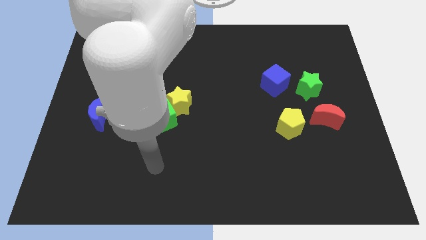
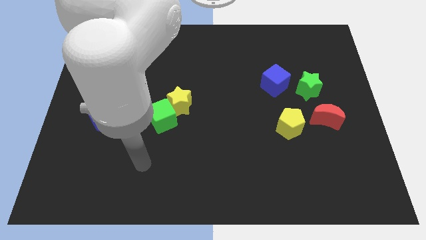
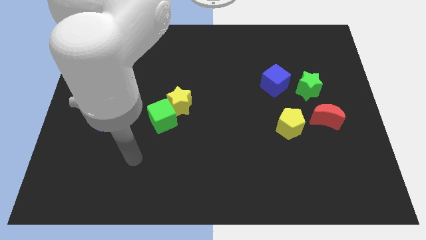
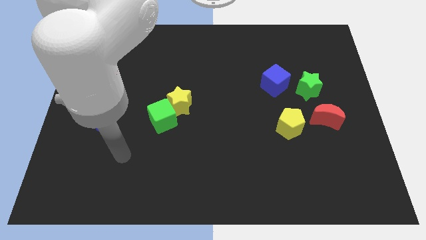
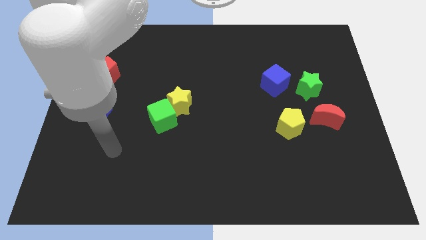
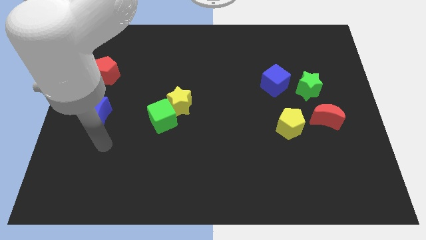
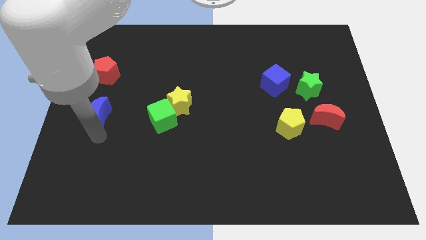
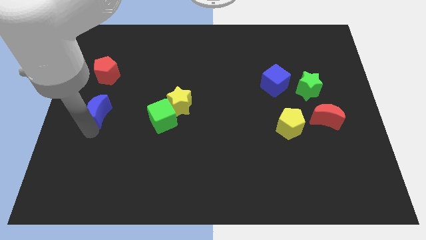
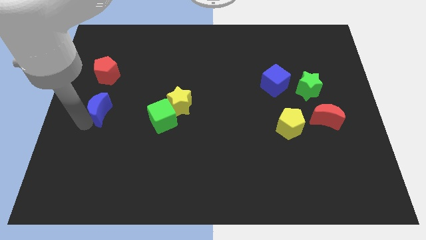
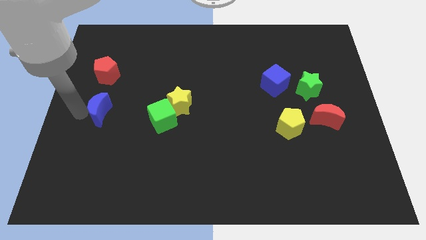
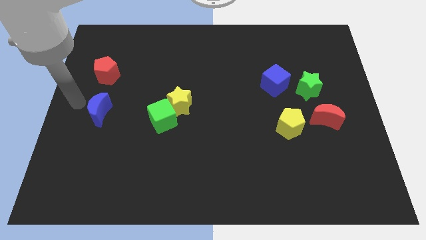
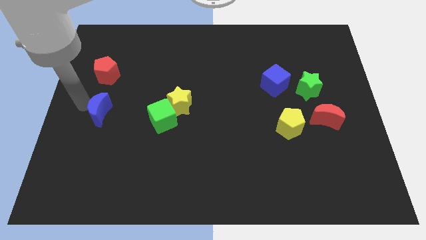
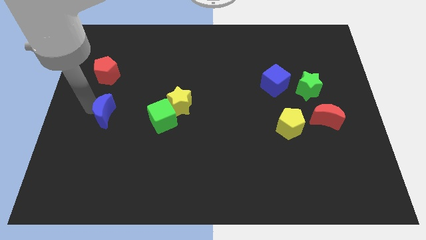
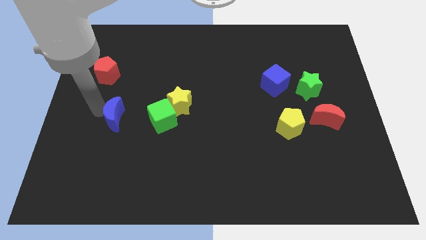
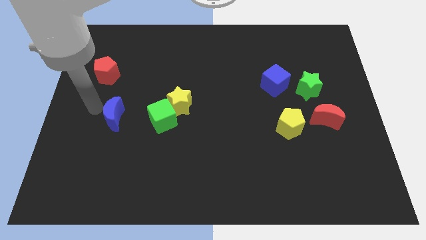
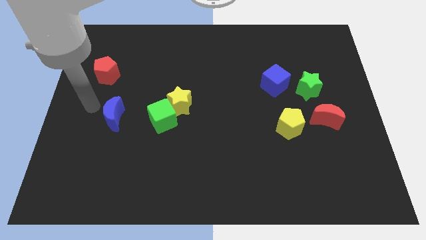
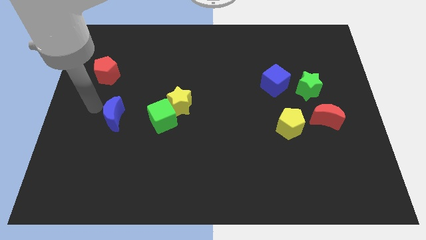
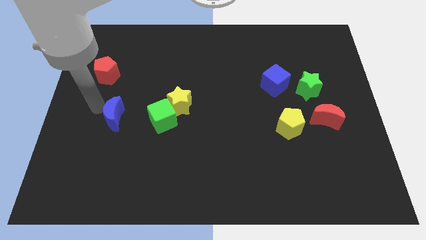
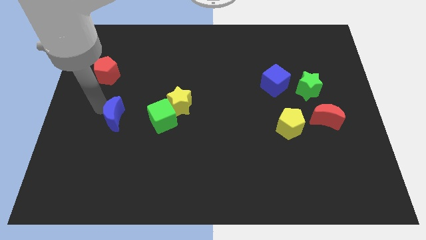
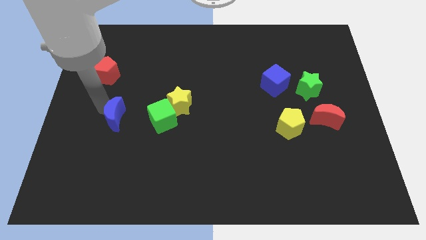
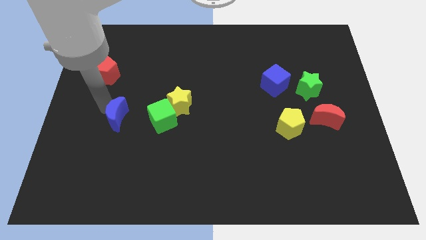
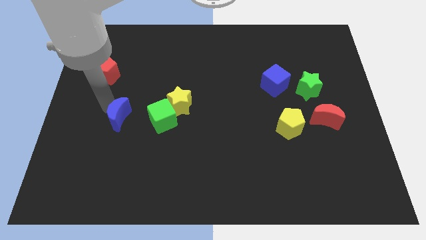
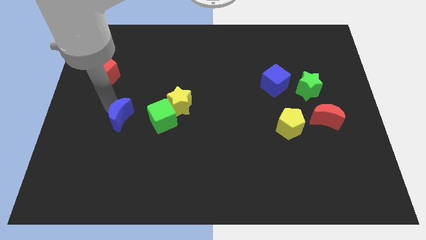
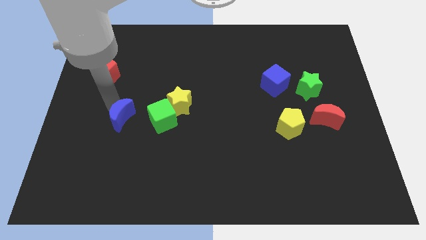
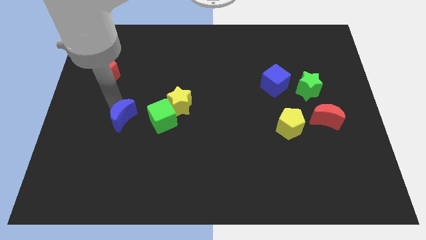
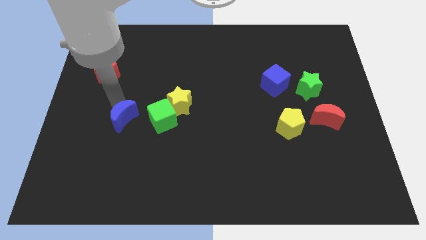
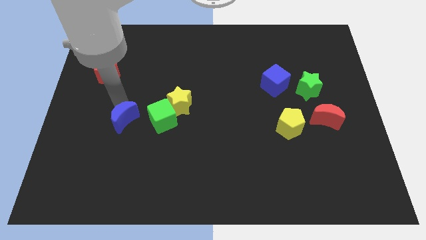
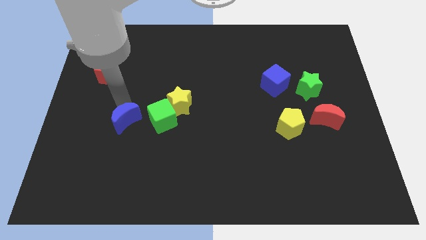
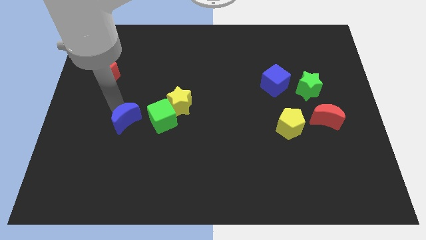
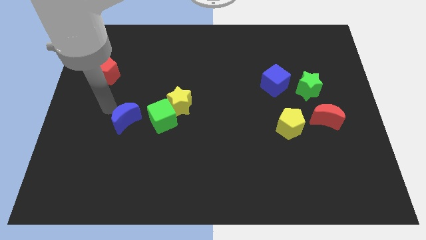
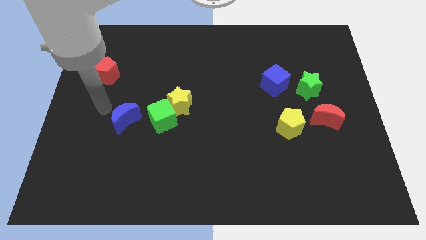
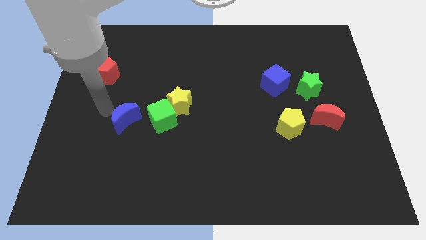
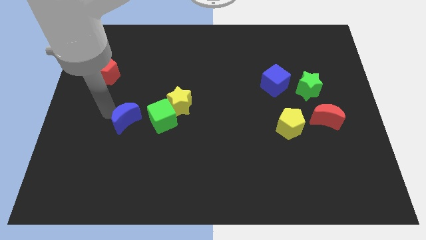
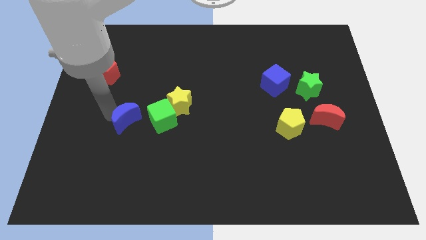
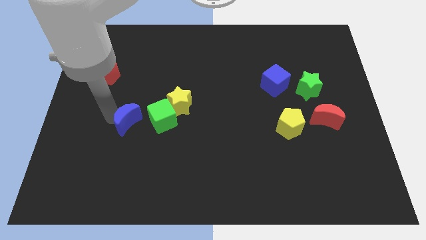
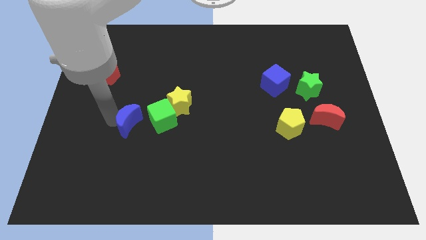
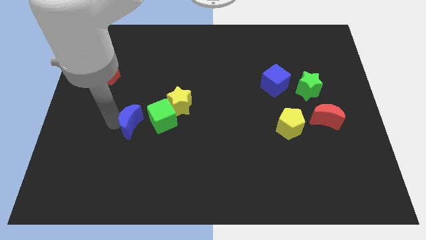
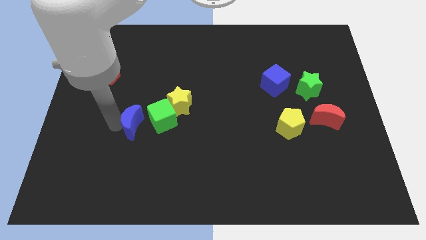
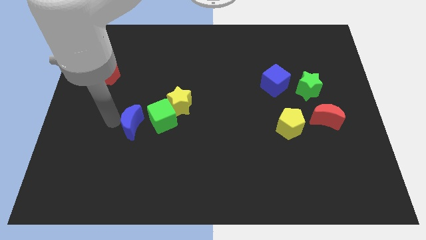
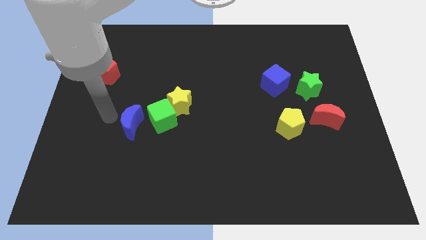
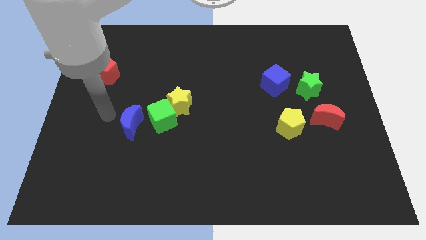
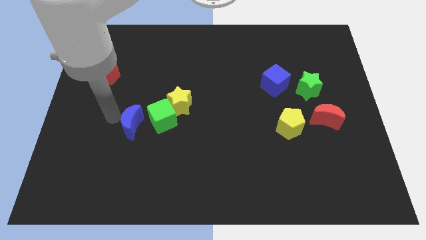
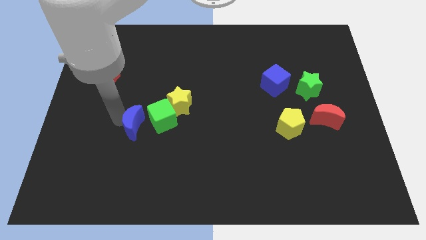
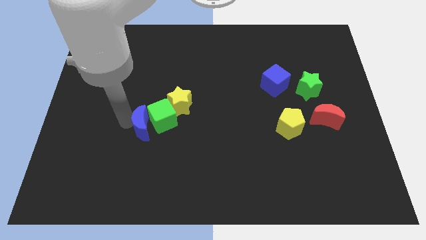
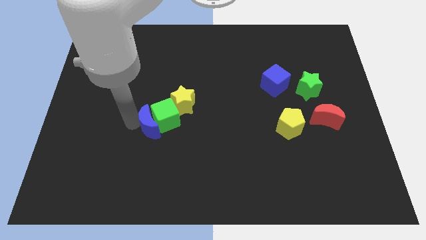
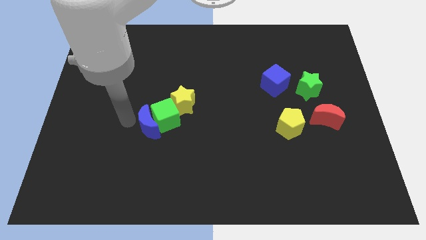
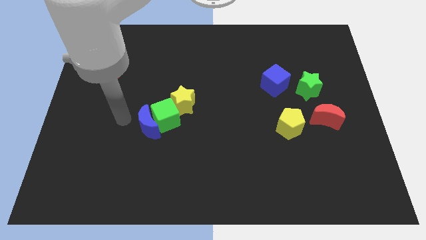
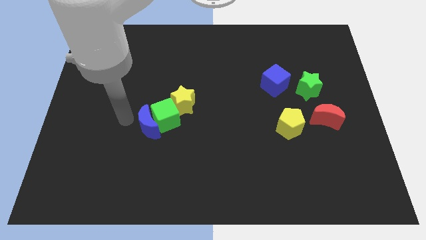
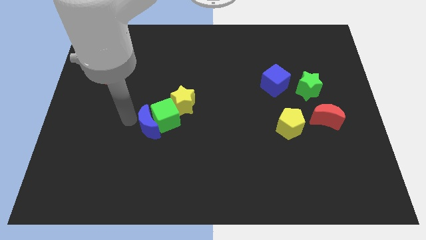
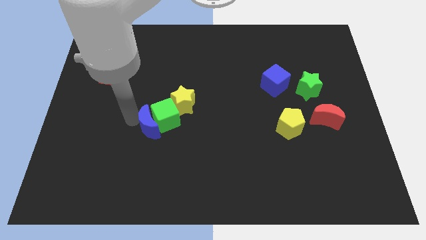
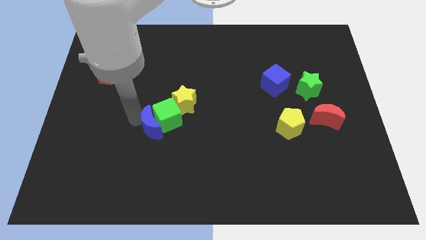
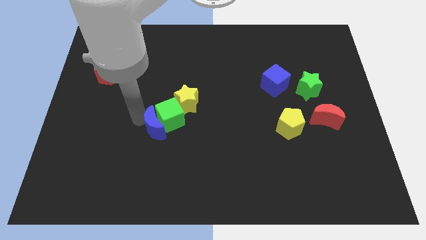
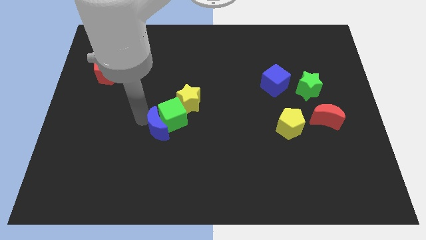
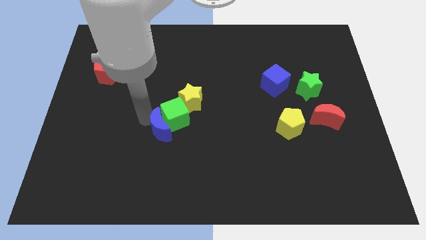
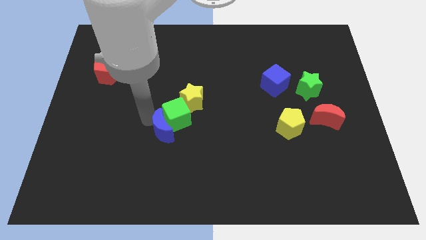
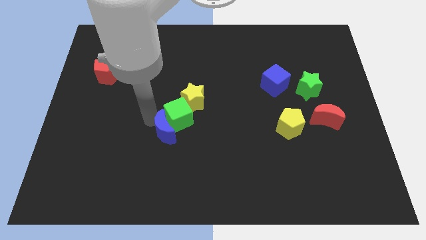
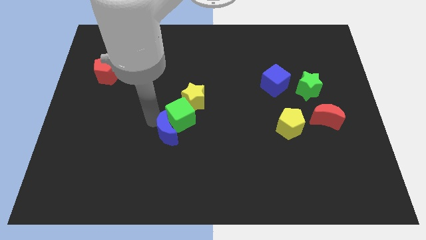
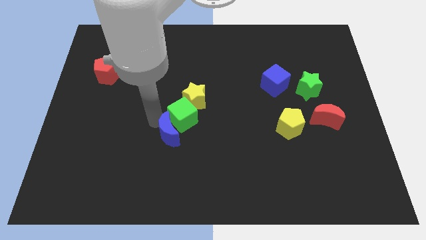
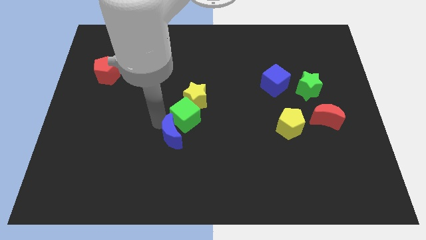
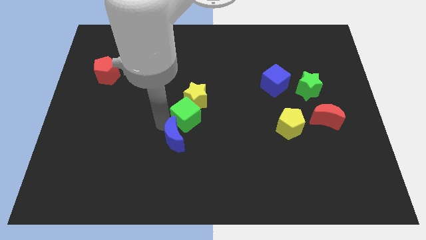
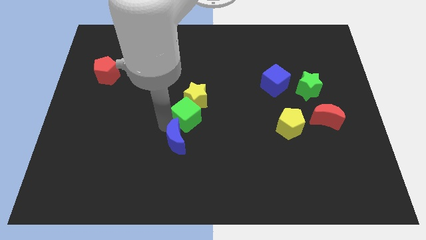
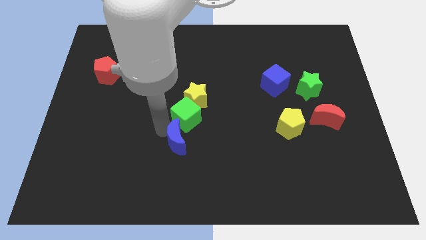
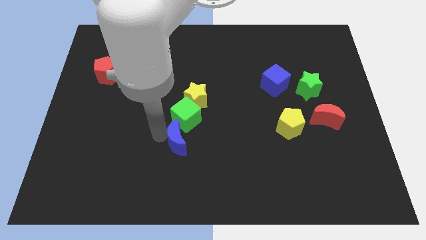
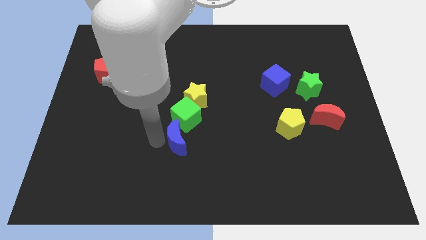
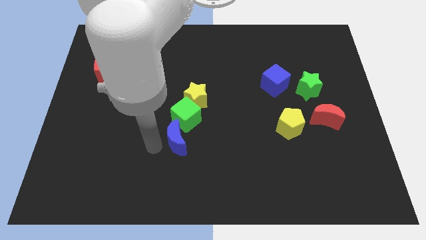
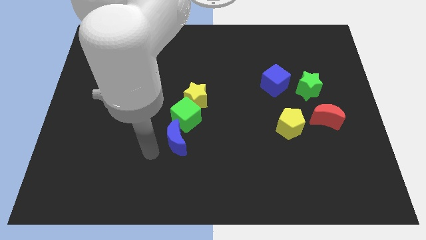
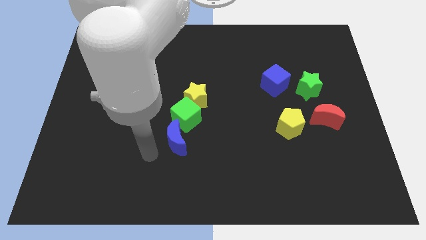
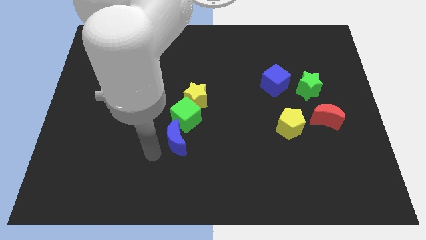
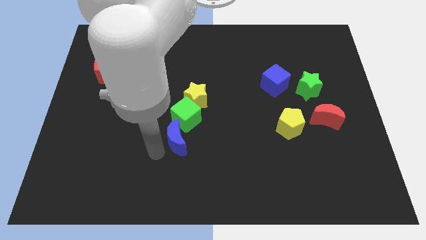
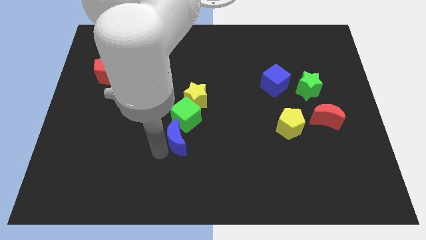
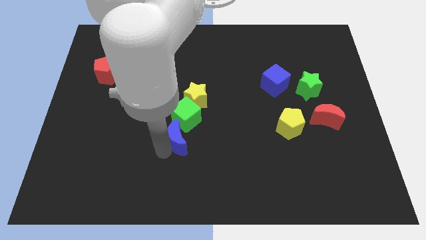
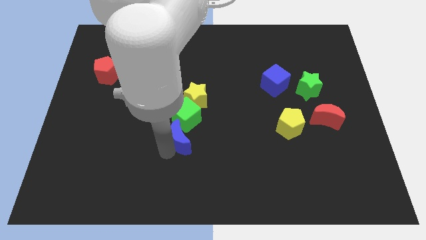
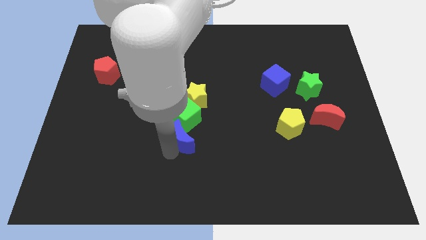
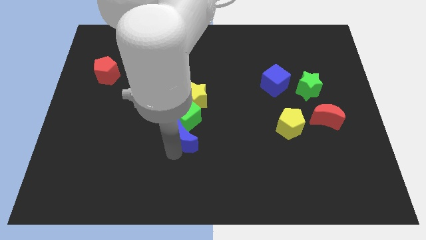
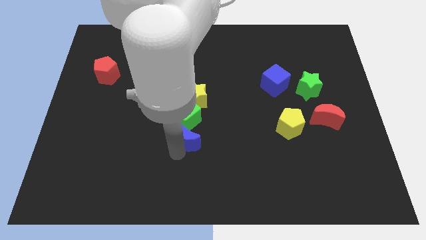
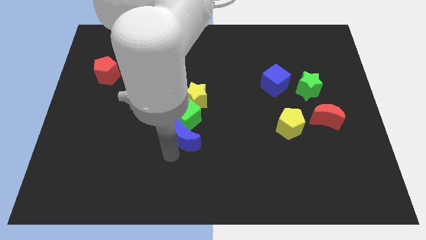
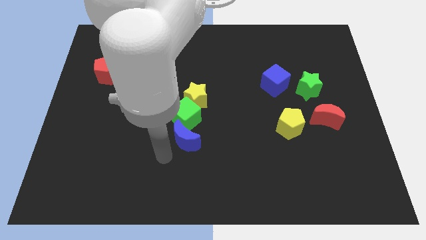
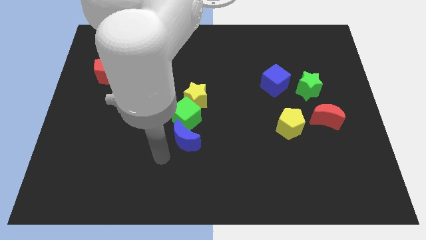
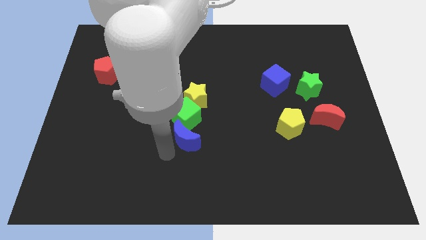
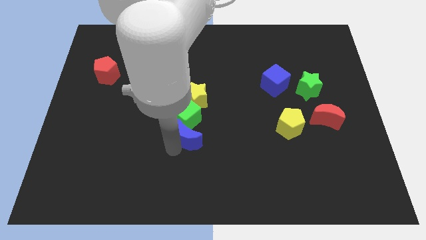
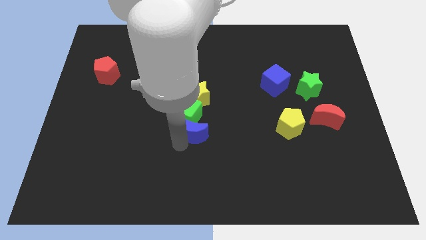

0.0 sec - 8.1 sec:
move the blue moon to the right

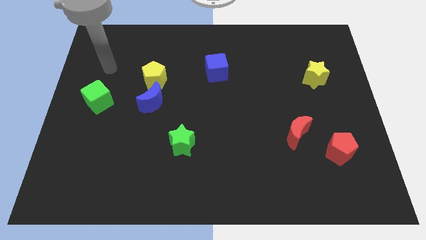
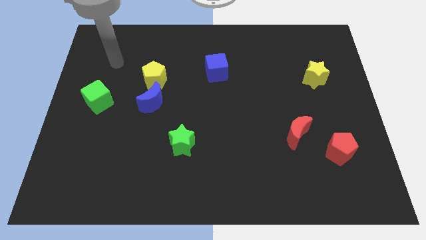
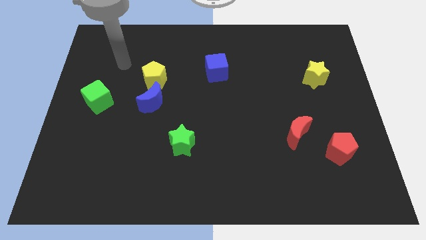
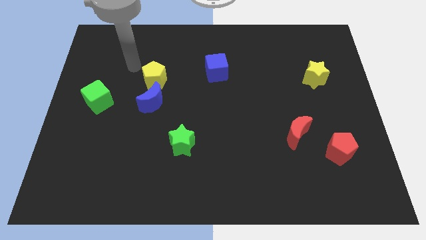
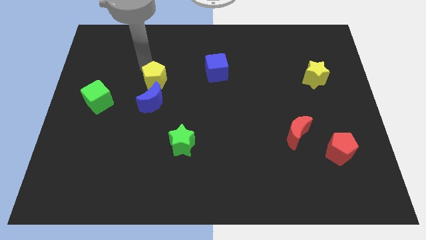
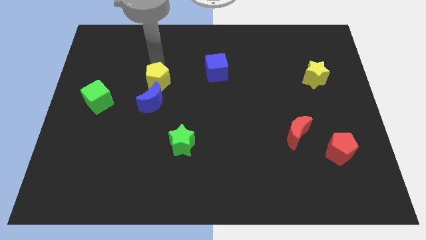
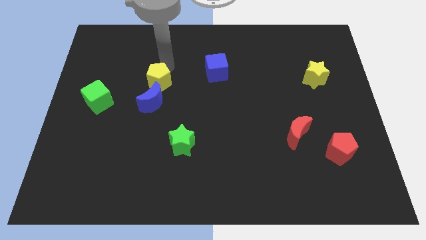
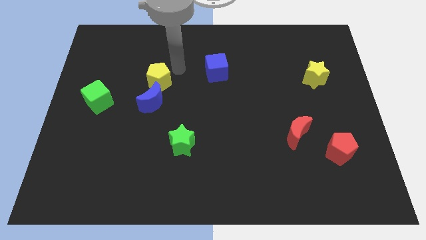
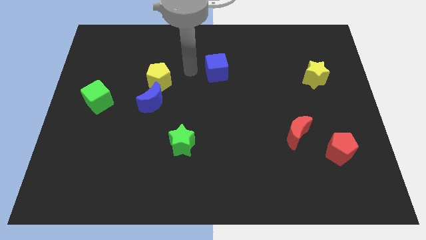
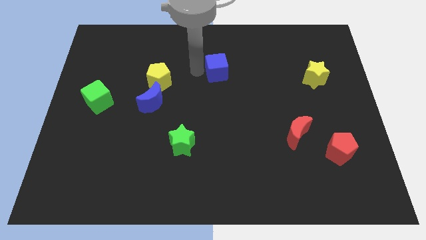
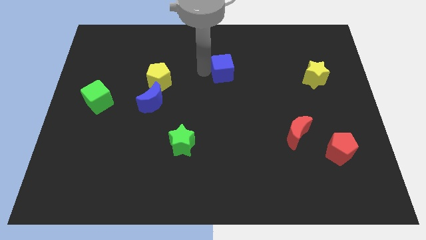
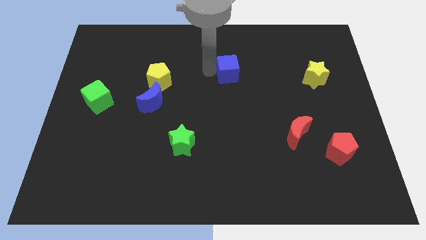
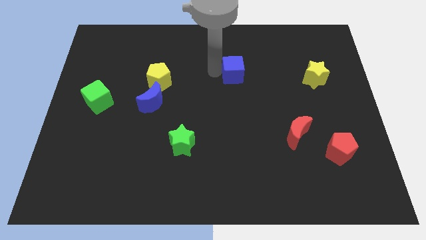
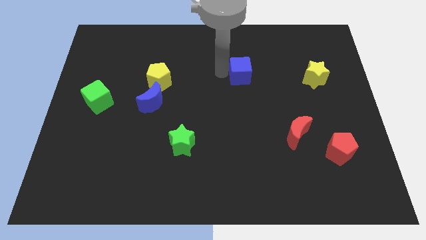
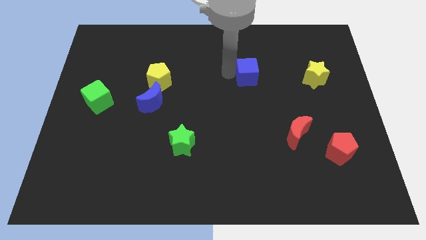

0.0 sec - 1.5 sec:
push the blue cube a little to the right
